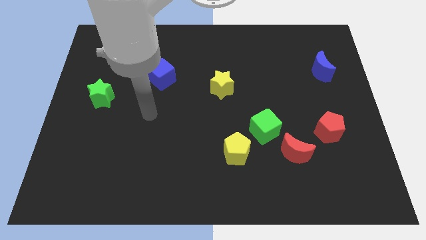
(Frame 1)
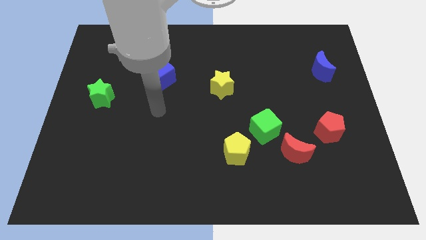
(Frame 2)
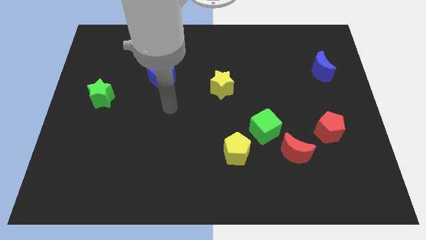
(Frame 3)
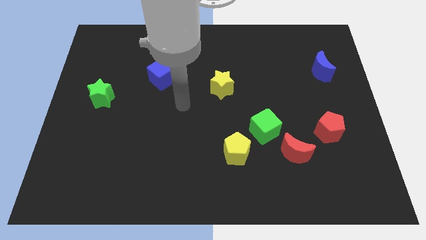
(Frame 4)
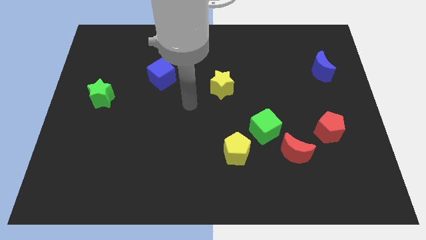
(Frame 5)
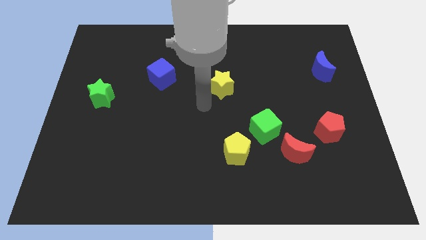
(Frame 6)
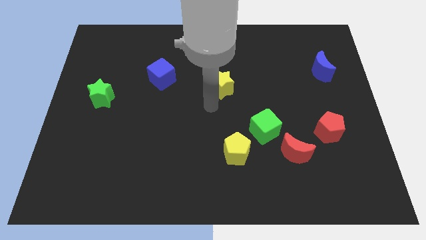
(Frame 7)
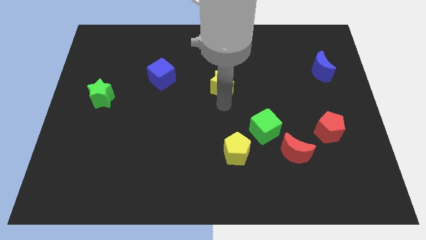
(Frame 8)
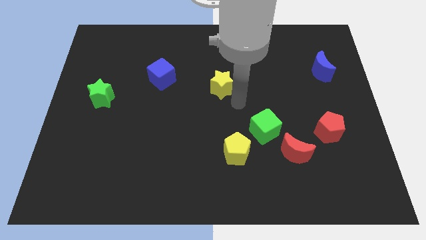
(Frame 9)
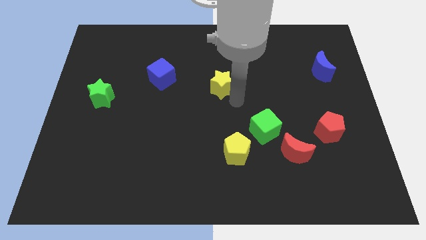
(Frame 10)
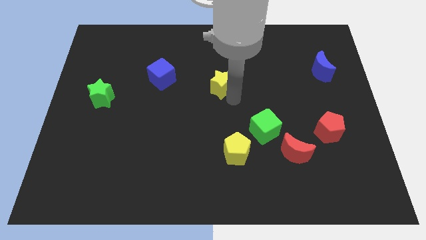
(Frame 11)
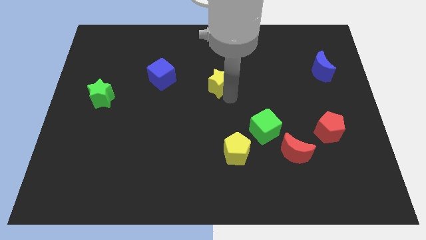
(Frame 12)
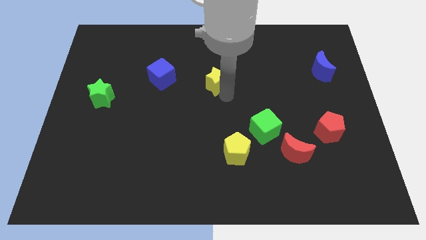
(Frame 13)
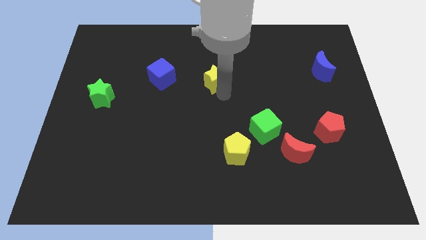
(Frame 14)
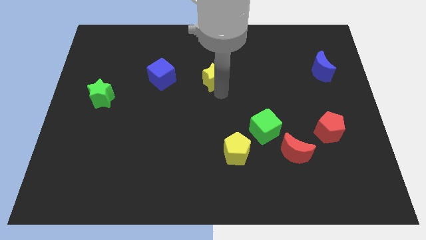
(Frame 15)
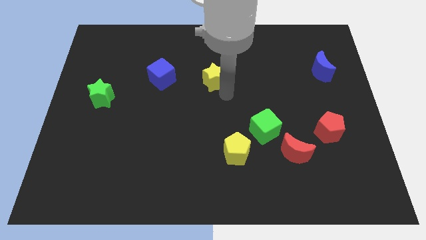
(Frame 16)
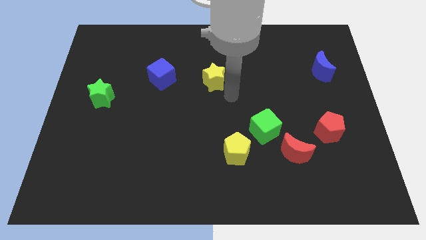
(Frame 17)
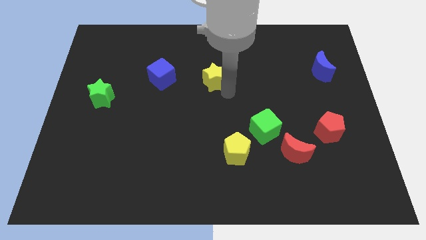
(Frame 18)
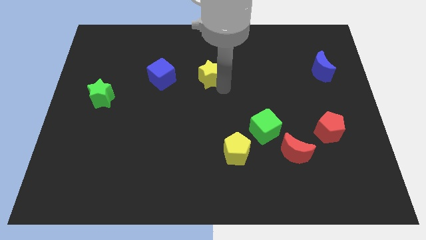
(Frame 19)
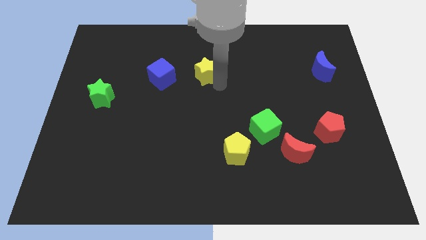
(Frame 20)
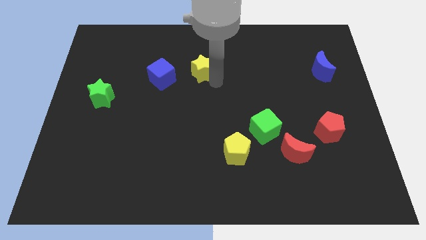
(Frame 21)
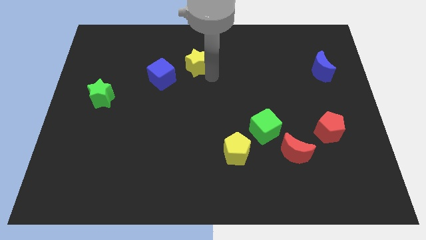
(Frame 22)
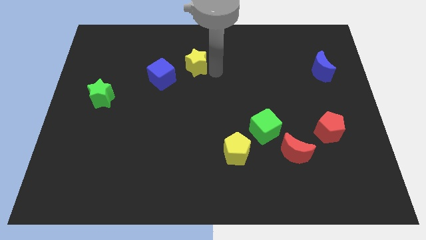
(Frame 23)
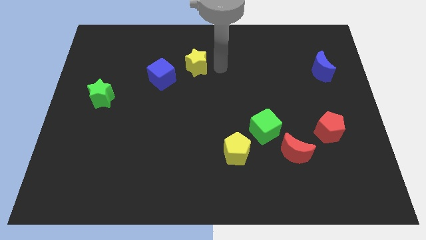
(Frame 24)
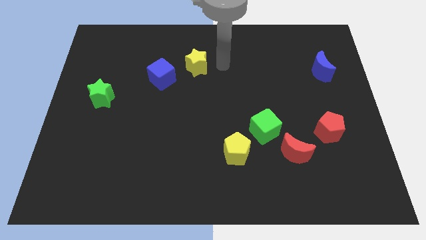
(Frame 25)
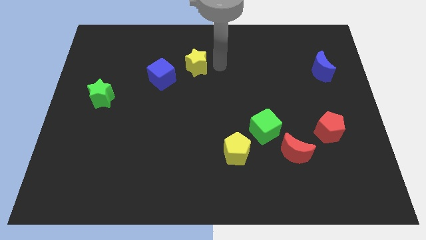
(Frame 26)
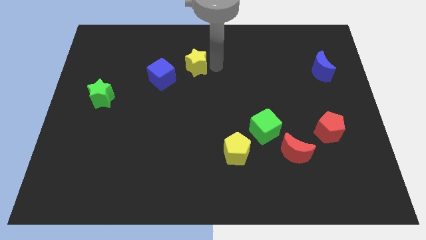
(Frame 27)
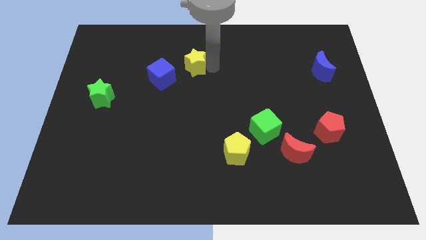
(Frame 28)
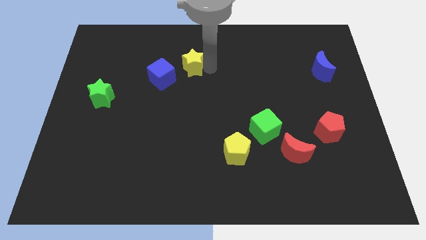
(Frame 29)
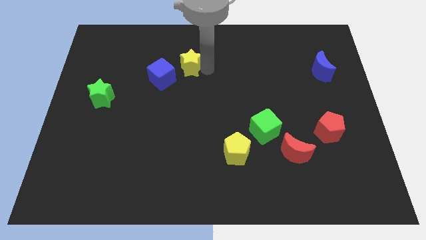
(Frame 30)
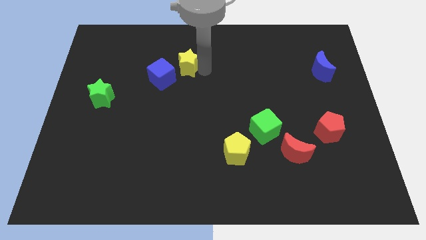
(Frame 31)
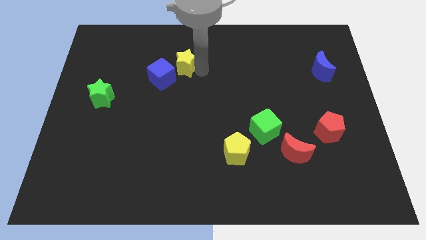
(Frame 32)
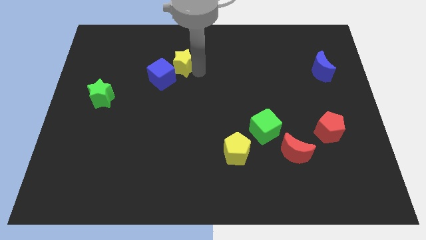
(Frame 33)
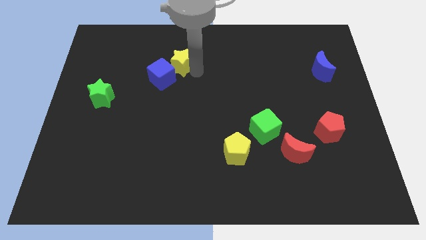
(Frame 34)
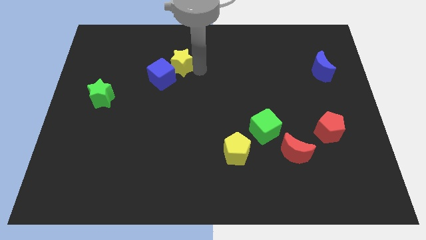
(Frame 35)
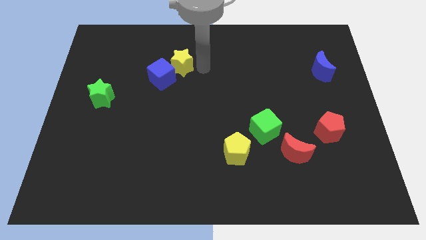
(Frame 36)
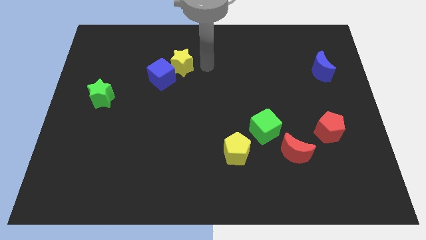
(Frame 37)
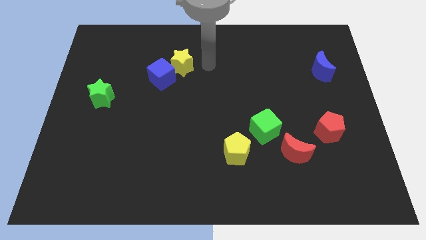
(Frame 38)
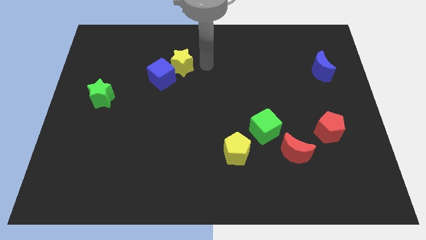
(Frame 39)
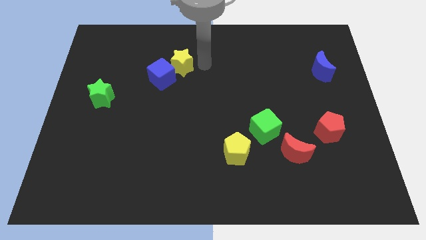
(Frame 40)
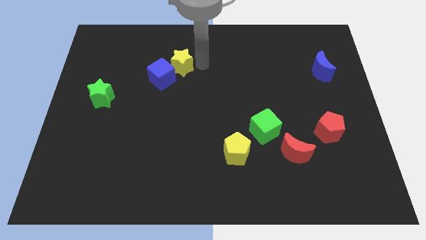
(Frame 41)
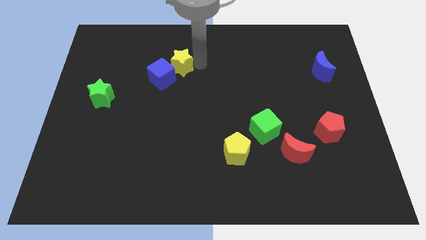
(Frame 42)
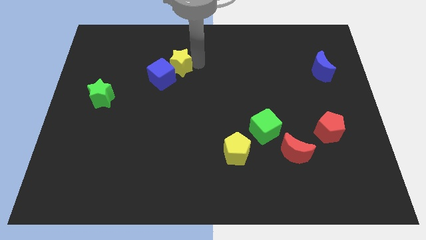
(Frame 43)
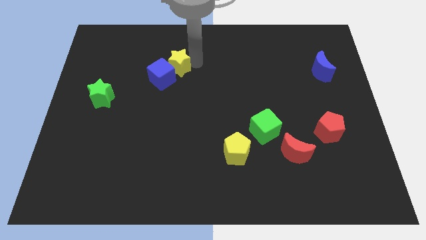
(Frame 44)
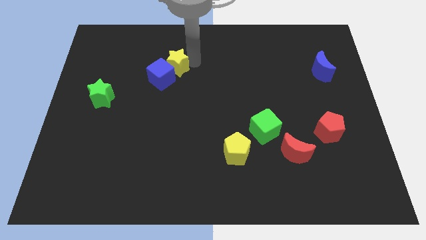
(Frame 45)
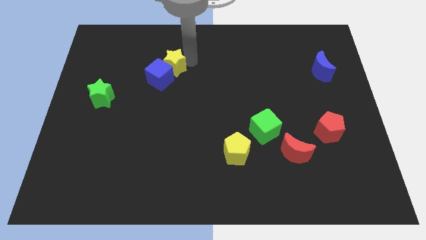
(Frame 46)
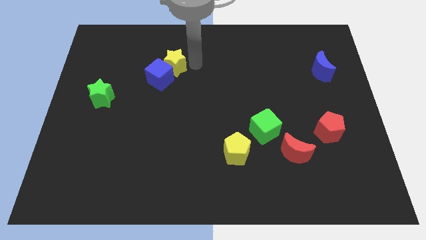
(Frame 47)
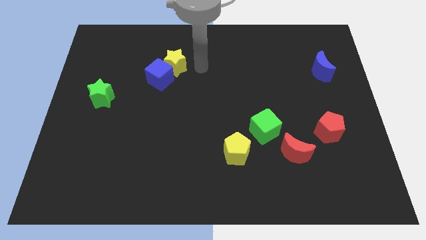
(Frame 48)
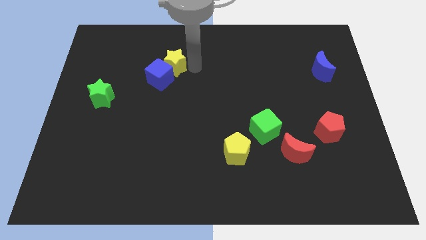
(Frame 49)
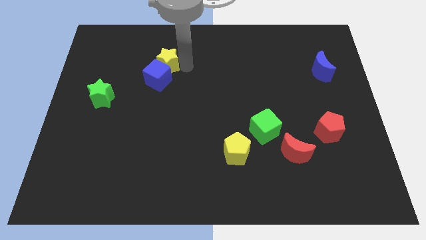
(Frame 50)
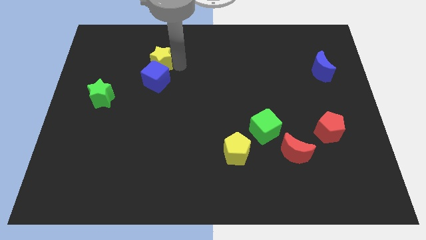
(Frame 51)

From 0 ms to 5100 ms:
move the yellow star to the top left of the blue cube

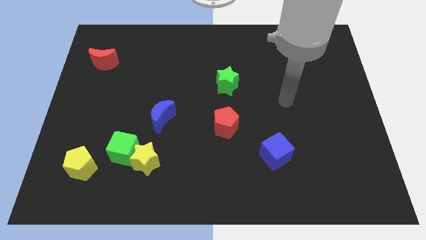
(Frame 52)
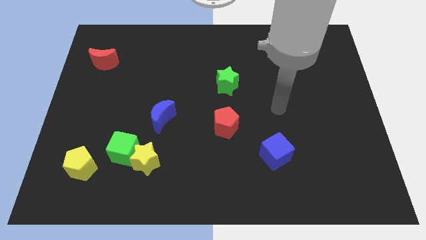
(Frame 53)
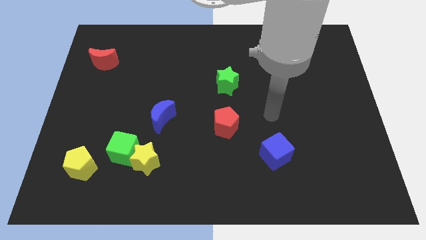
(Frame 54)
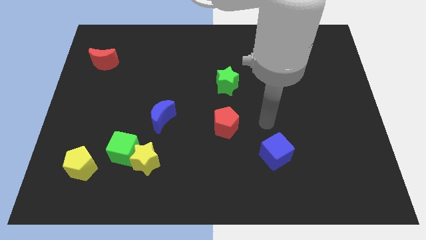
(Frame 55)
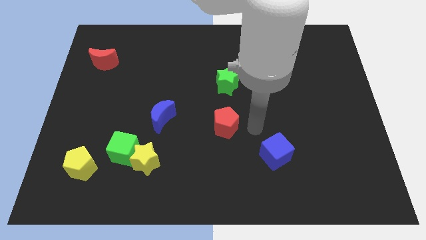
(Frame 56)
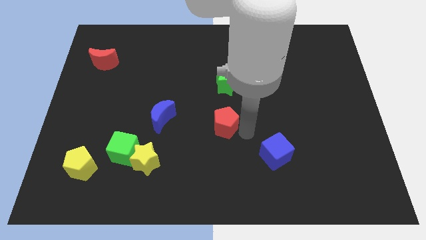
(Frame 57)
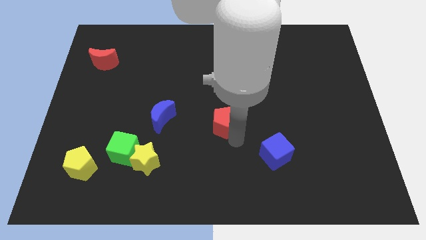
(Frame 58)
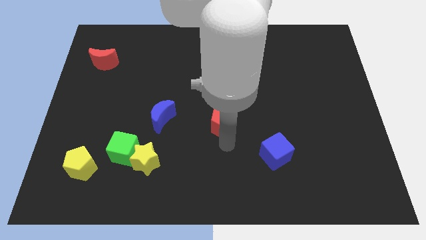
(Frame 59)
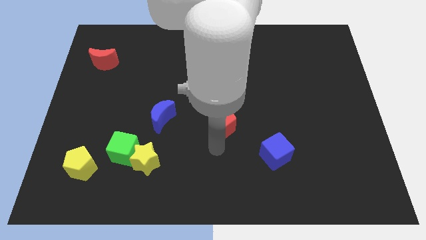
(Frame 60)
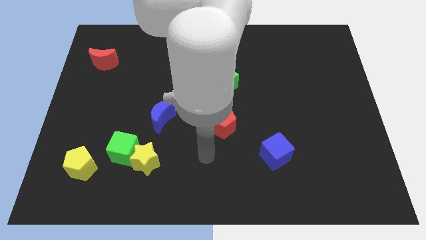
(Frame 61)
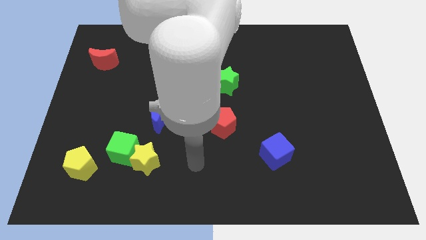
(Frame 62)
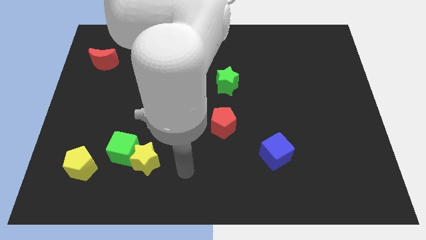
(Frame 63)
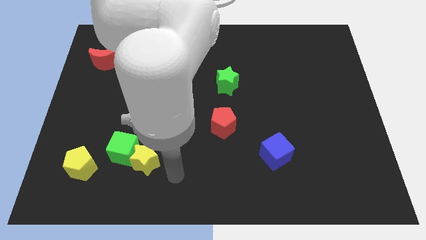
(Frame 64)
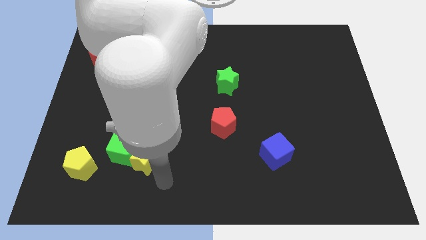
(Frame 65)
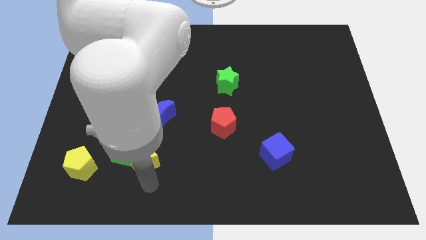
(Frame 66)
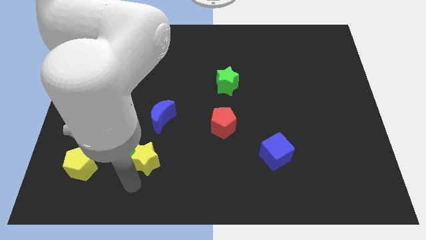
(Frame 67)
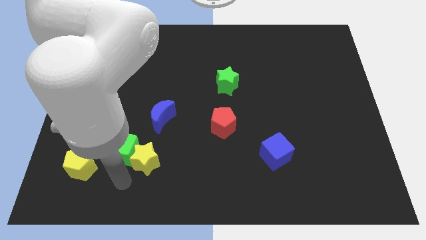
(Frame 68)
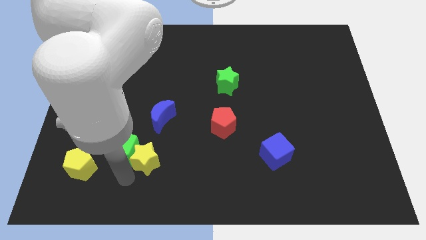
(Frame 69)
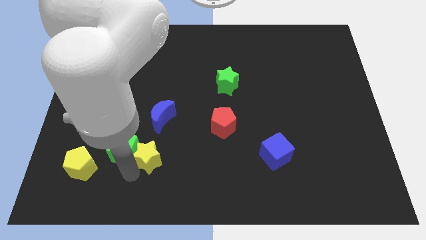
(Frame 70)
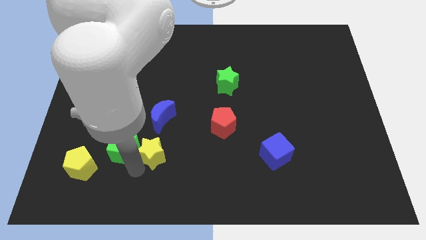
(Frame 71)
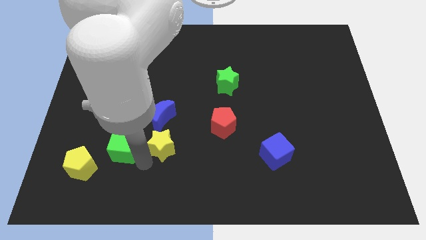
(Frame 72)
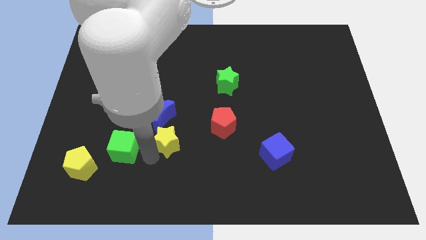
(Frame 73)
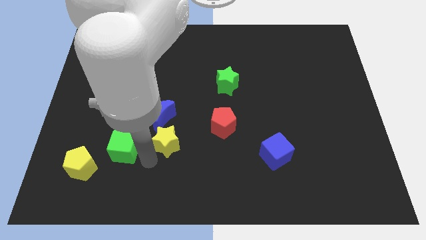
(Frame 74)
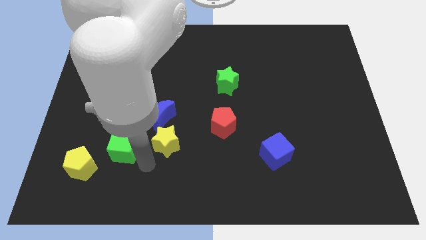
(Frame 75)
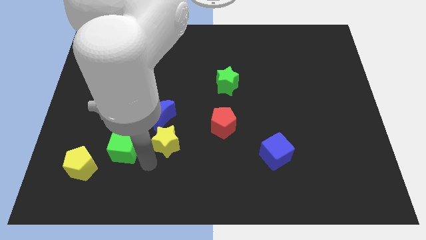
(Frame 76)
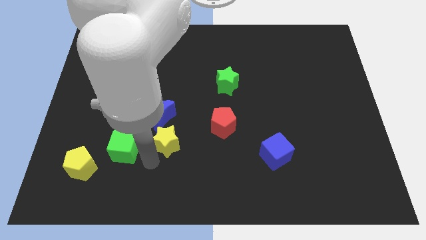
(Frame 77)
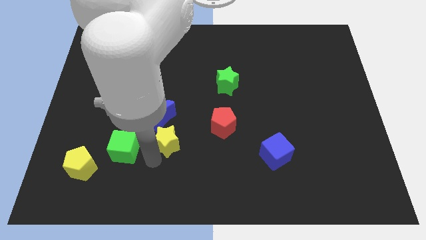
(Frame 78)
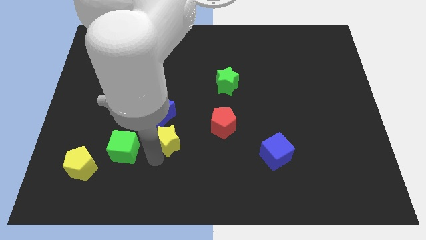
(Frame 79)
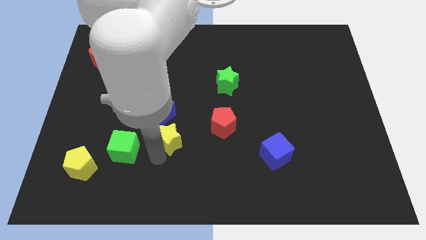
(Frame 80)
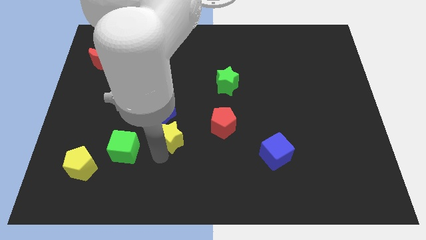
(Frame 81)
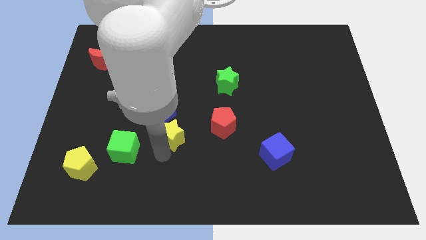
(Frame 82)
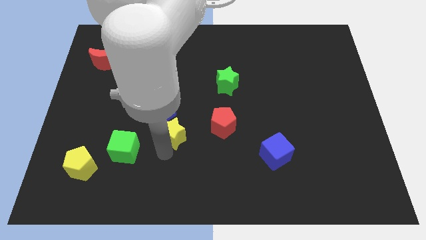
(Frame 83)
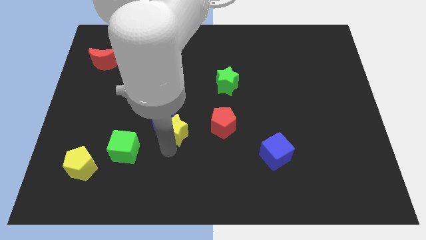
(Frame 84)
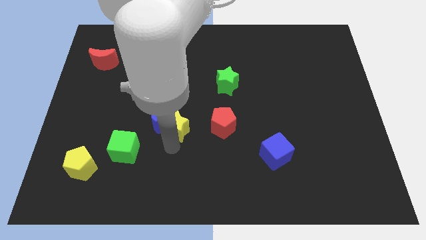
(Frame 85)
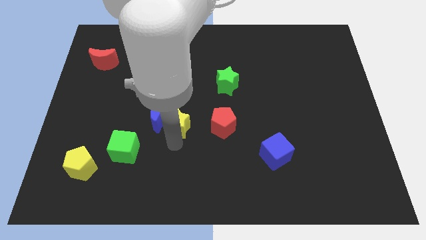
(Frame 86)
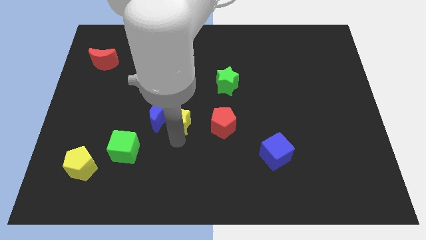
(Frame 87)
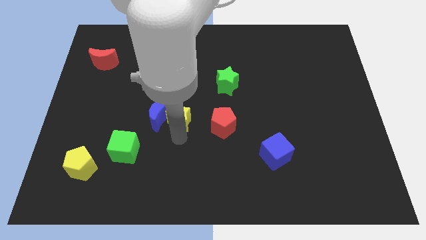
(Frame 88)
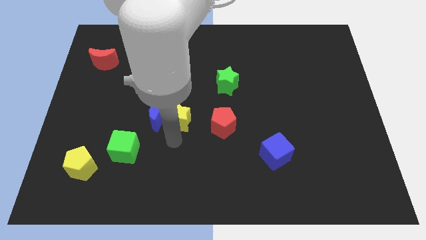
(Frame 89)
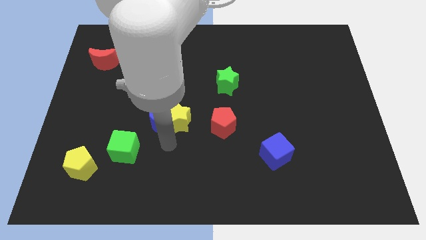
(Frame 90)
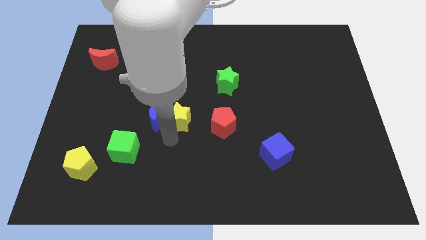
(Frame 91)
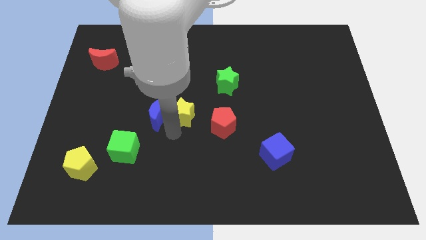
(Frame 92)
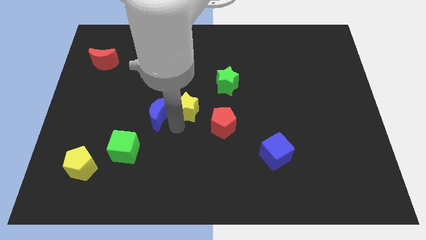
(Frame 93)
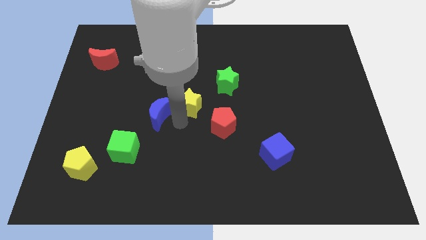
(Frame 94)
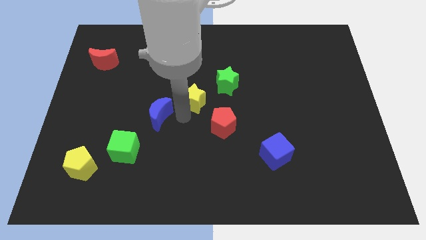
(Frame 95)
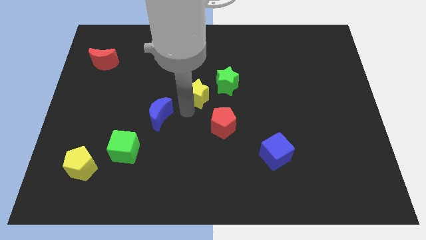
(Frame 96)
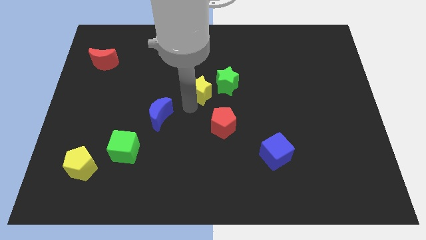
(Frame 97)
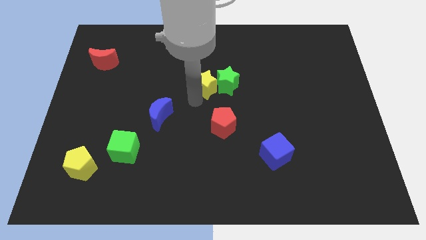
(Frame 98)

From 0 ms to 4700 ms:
move the yellow star to the top left side of the green star
